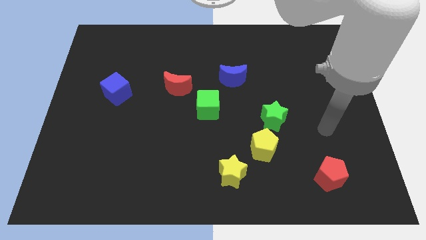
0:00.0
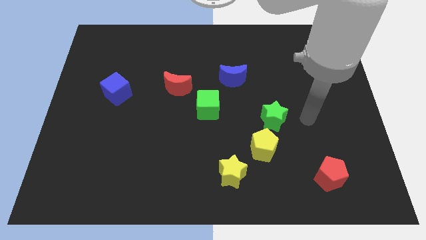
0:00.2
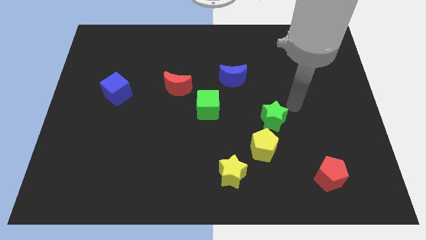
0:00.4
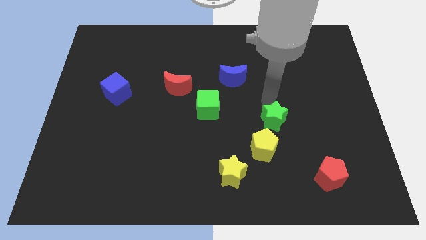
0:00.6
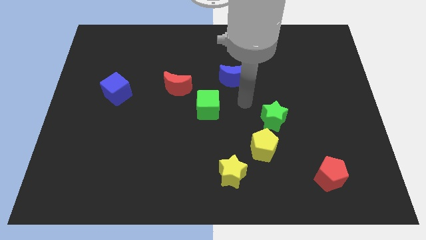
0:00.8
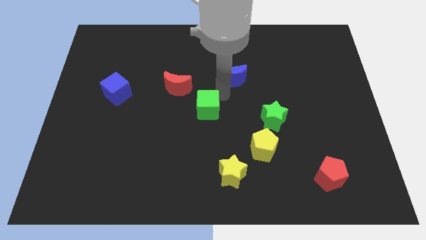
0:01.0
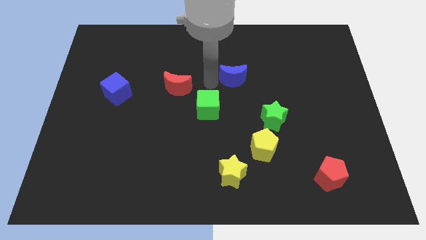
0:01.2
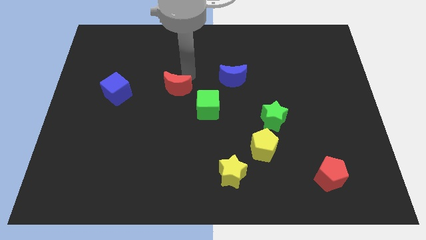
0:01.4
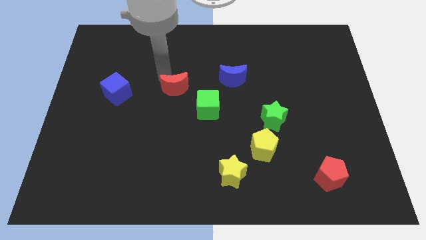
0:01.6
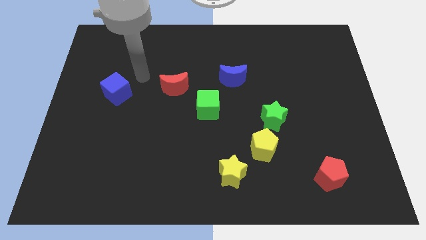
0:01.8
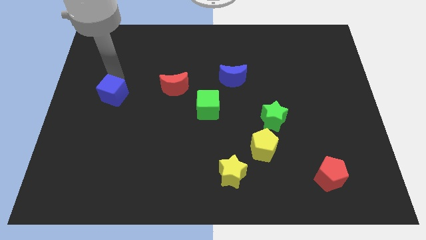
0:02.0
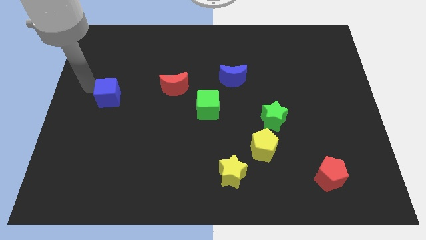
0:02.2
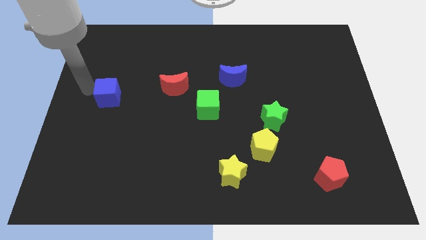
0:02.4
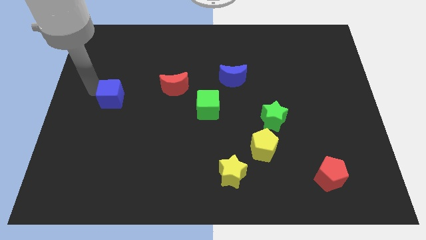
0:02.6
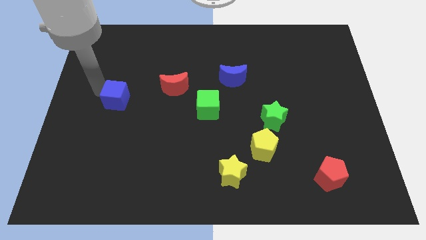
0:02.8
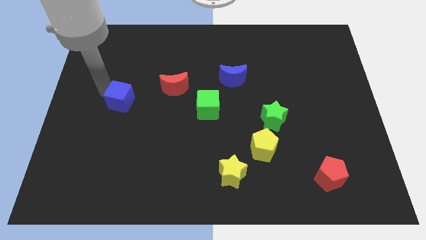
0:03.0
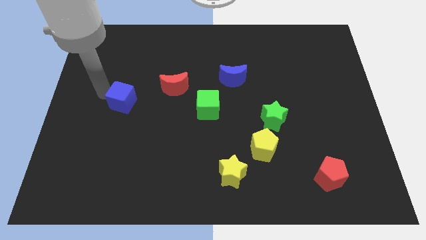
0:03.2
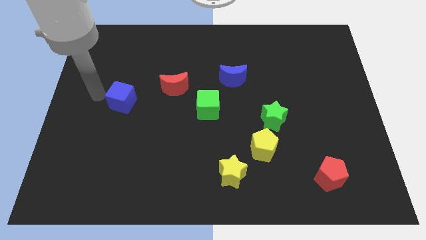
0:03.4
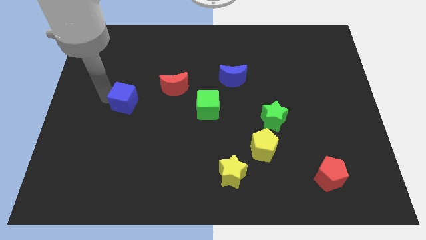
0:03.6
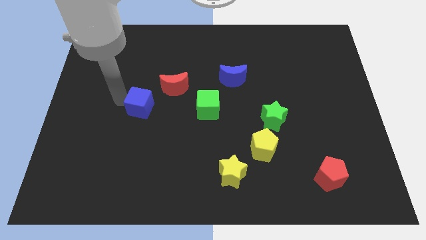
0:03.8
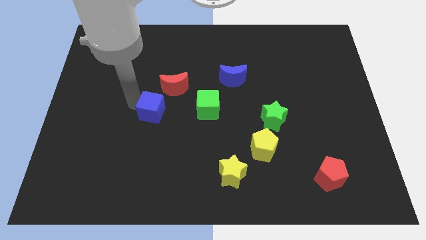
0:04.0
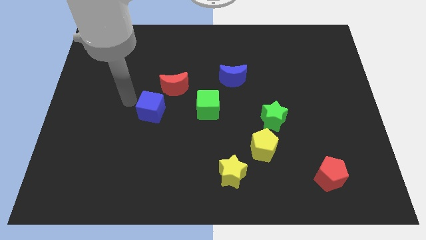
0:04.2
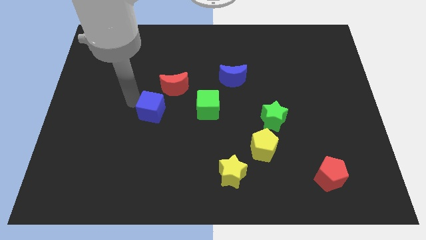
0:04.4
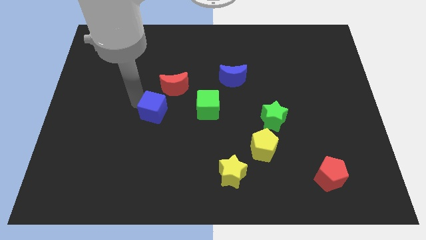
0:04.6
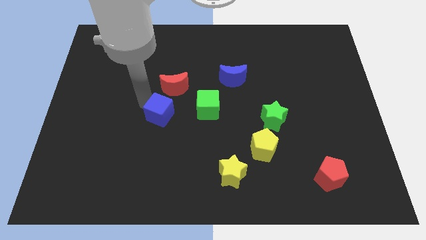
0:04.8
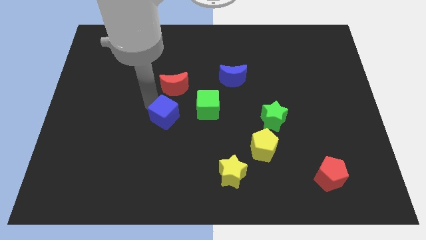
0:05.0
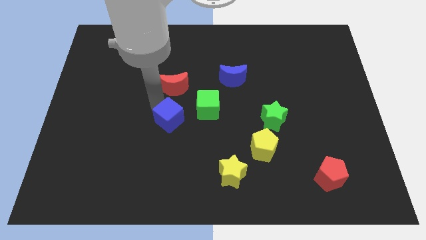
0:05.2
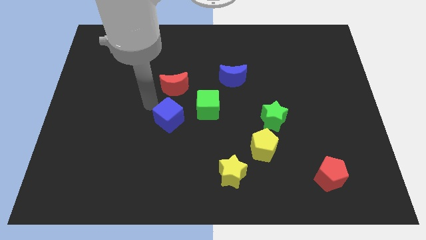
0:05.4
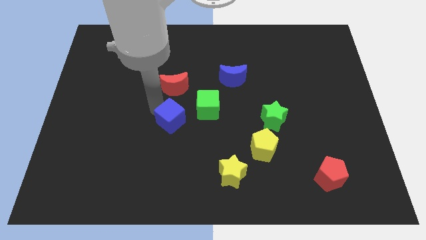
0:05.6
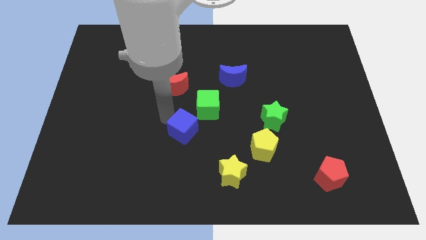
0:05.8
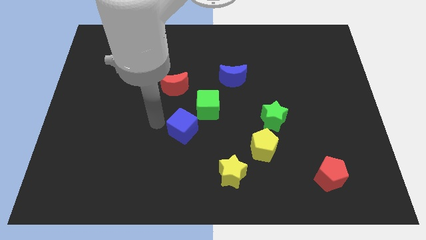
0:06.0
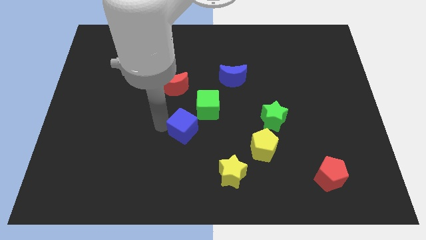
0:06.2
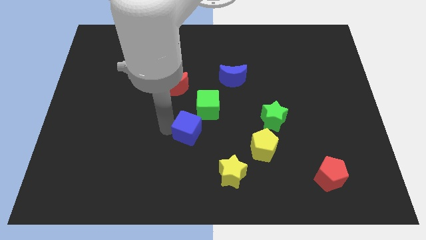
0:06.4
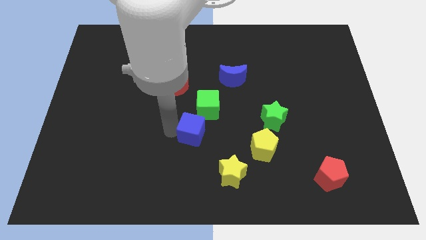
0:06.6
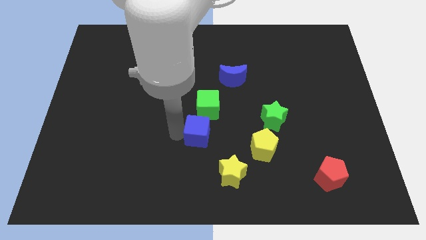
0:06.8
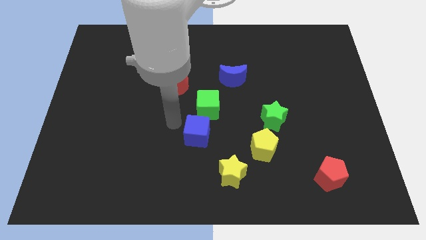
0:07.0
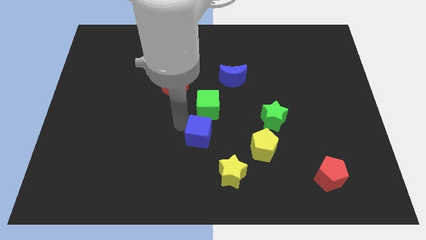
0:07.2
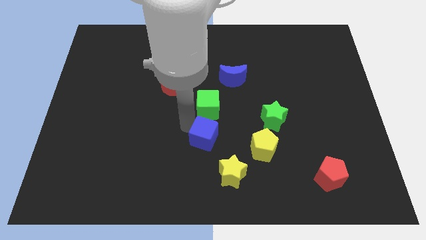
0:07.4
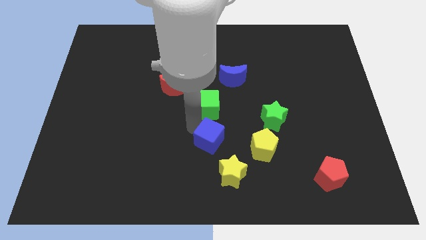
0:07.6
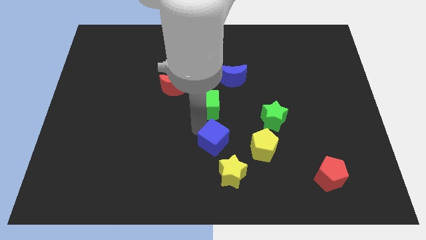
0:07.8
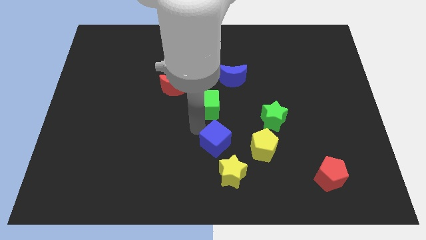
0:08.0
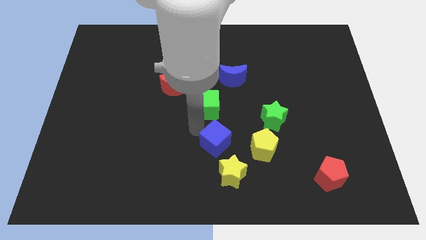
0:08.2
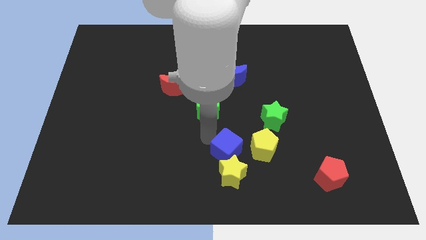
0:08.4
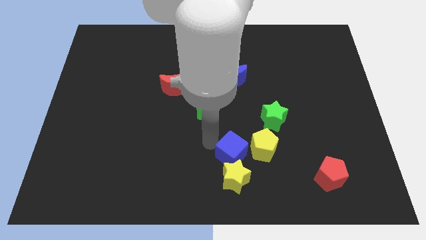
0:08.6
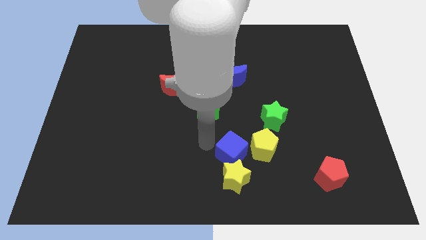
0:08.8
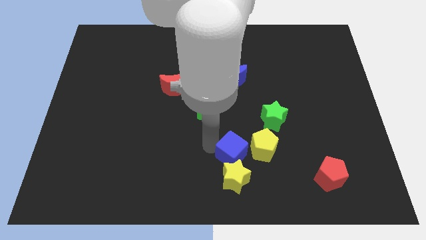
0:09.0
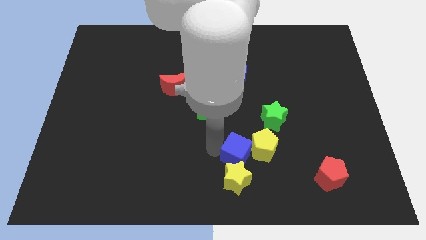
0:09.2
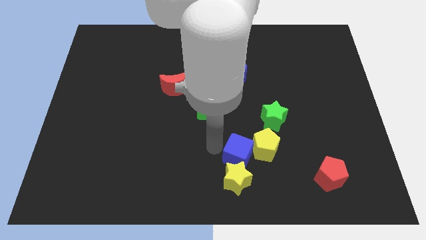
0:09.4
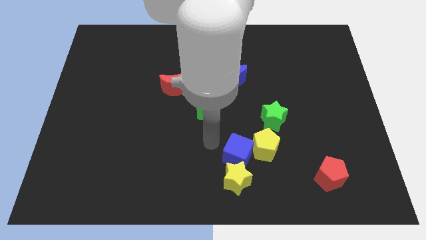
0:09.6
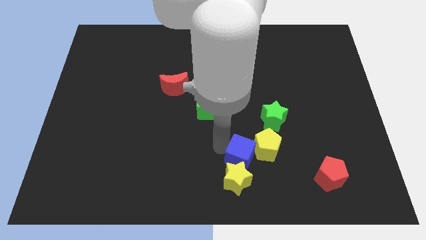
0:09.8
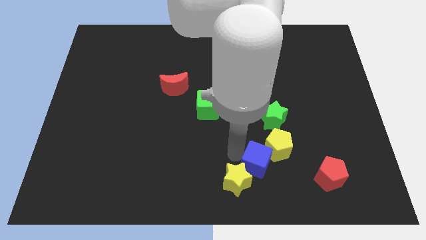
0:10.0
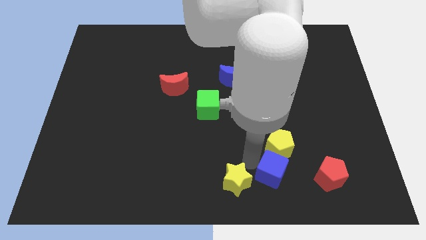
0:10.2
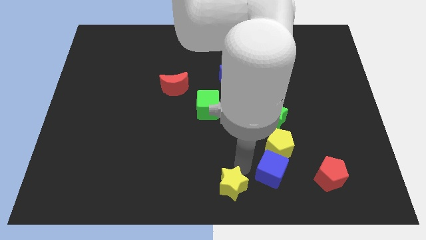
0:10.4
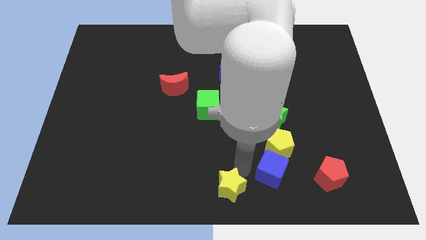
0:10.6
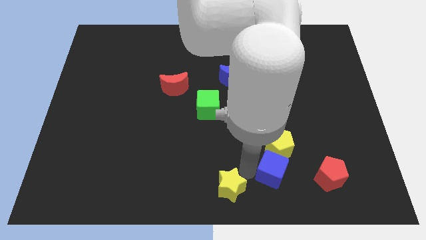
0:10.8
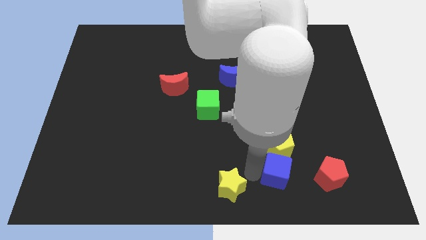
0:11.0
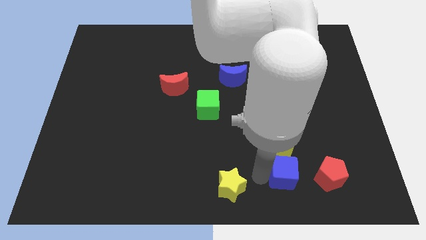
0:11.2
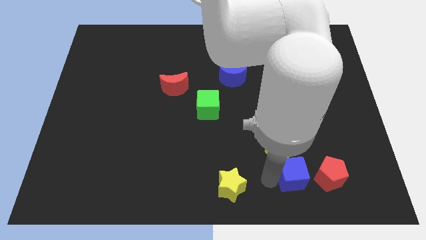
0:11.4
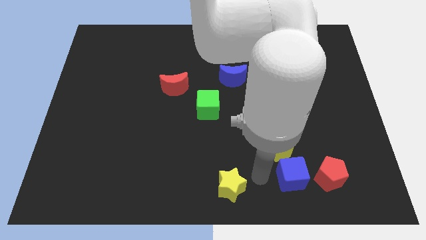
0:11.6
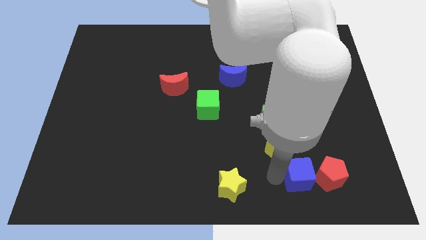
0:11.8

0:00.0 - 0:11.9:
put the blue cube close to the red pentagon

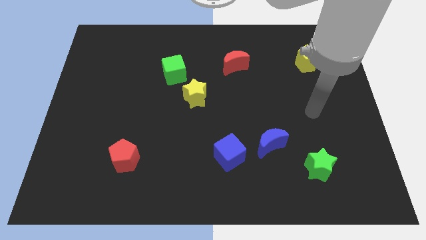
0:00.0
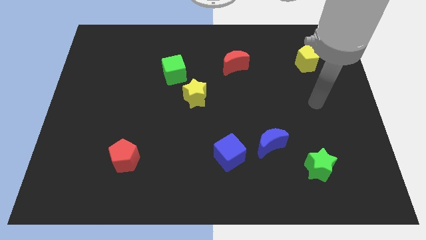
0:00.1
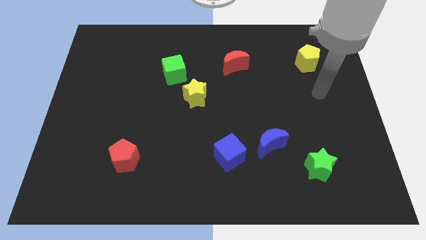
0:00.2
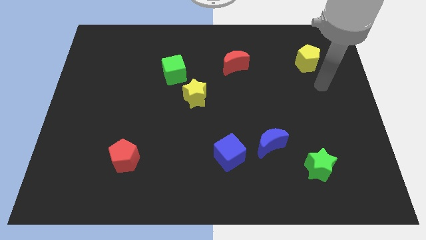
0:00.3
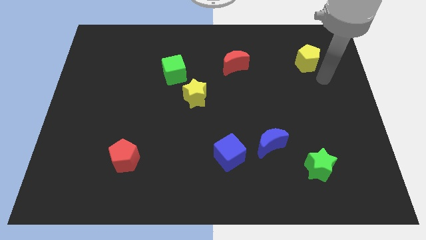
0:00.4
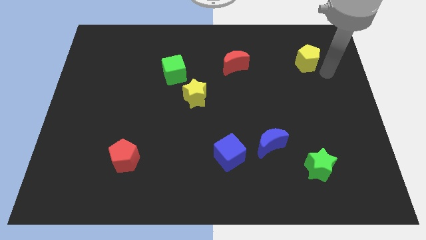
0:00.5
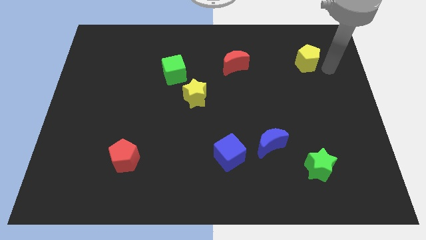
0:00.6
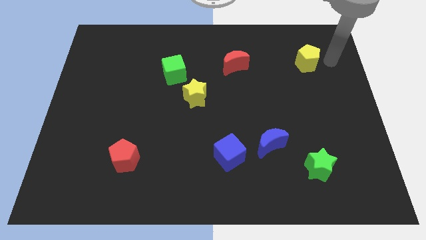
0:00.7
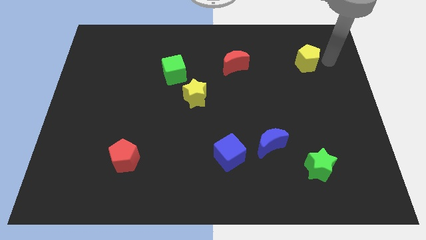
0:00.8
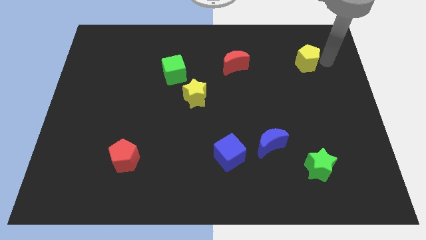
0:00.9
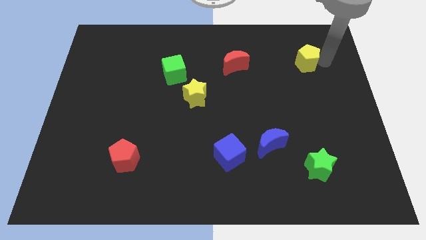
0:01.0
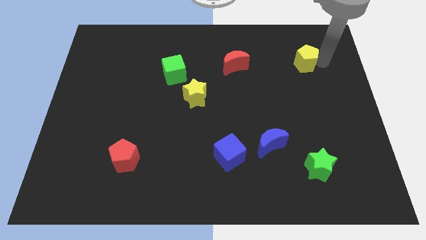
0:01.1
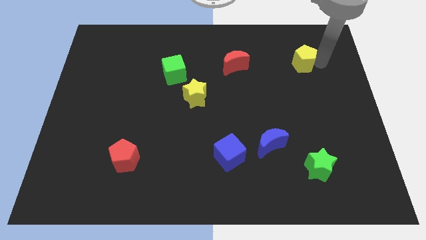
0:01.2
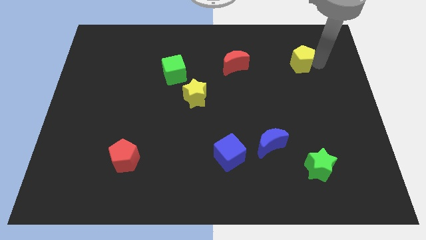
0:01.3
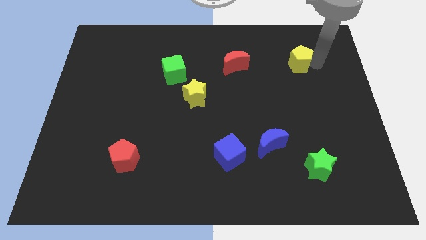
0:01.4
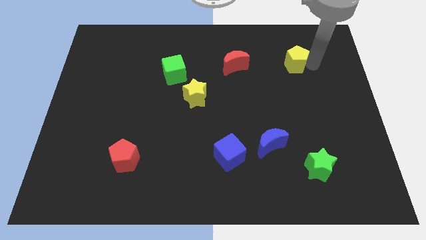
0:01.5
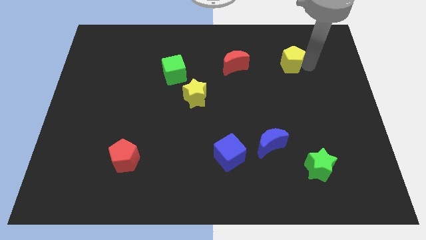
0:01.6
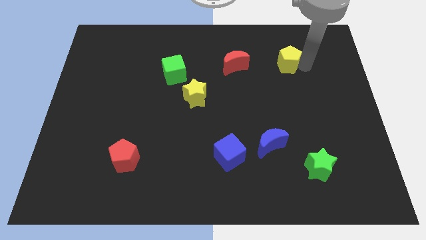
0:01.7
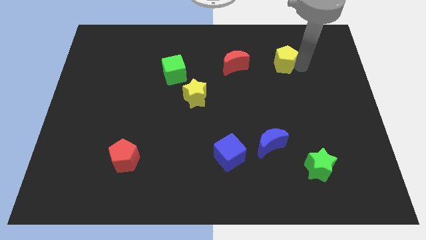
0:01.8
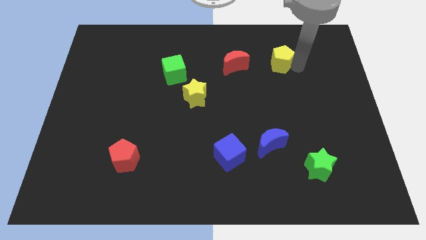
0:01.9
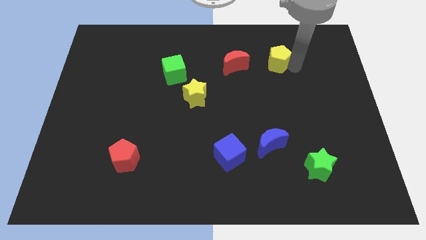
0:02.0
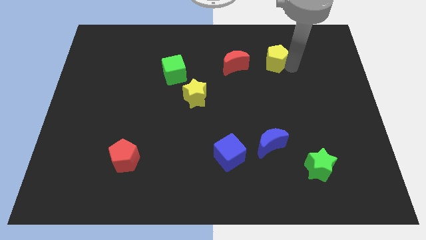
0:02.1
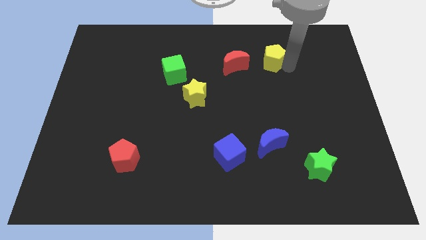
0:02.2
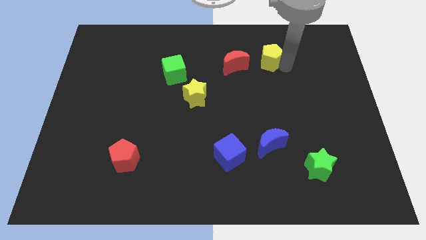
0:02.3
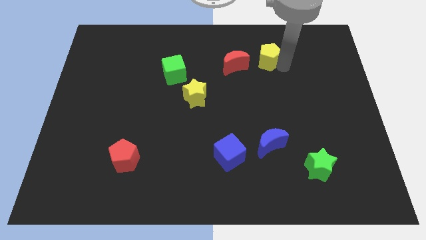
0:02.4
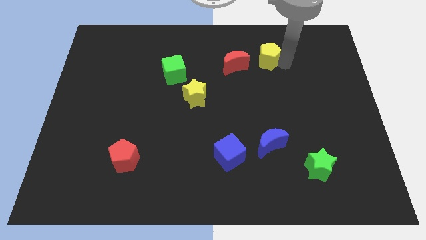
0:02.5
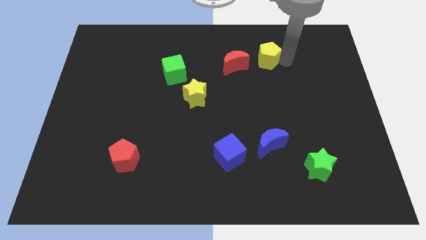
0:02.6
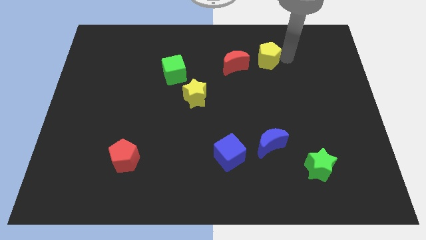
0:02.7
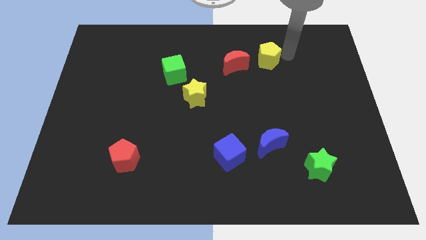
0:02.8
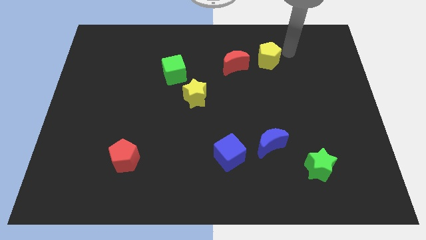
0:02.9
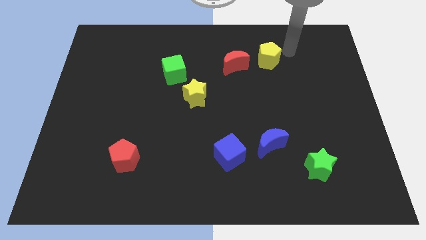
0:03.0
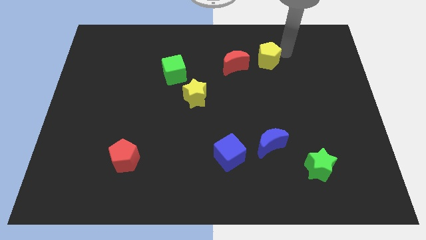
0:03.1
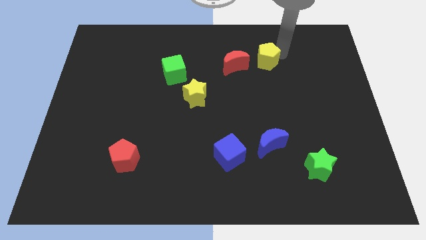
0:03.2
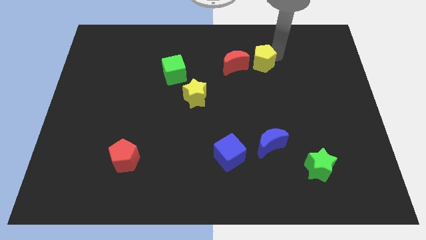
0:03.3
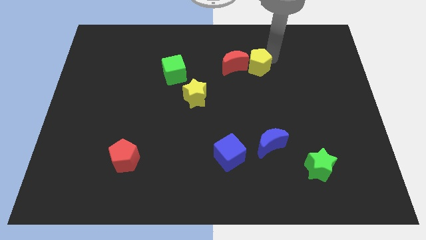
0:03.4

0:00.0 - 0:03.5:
slide the yellow pentagon towards the red moon
